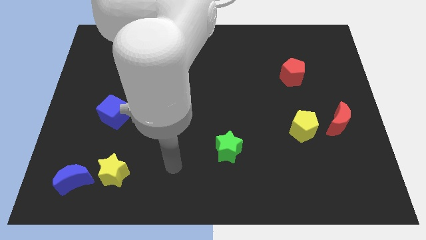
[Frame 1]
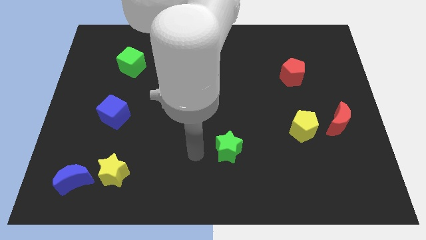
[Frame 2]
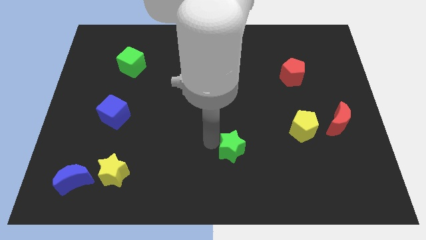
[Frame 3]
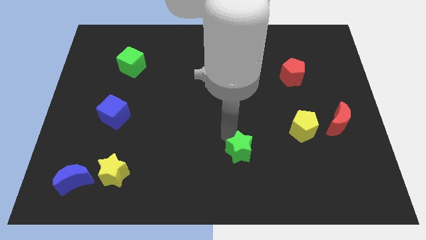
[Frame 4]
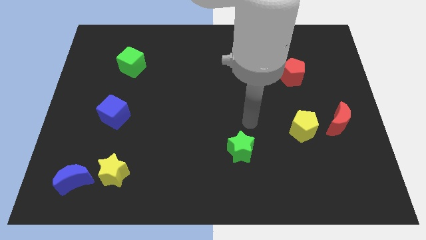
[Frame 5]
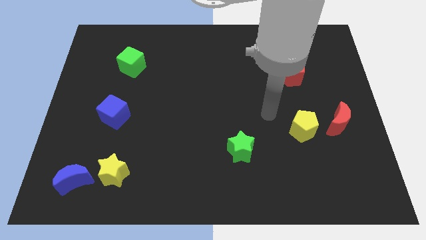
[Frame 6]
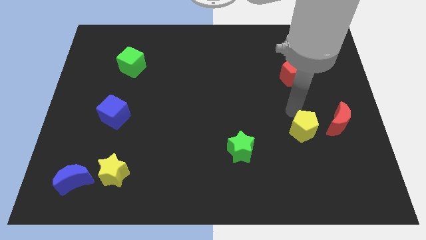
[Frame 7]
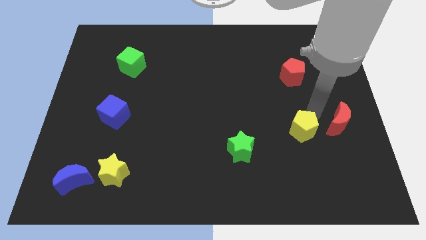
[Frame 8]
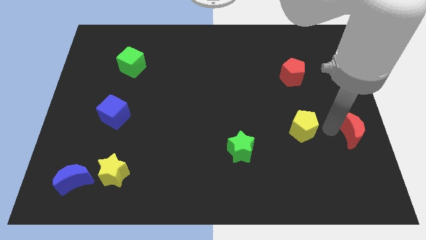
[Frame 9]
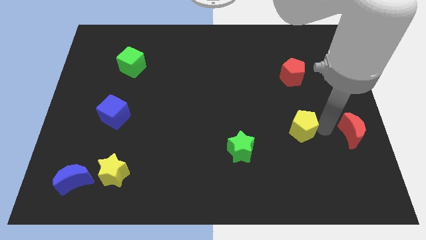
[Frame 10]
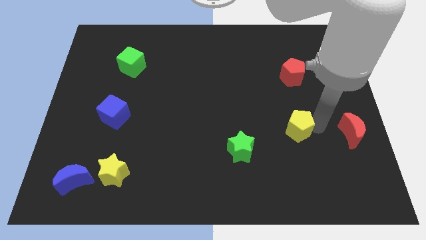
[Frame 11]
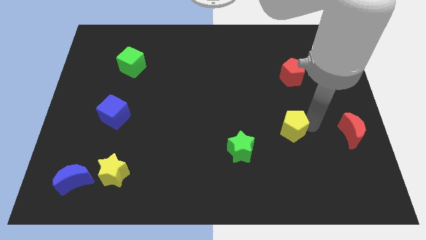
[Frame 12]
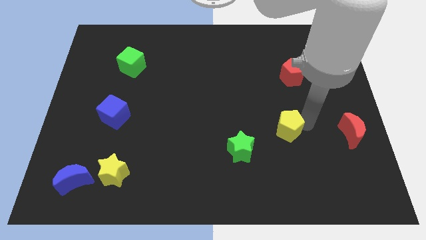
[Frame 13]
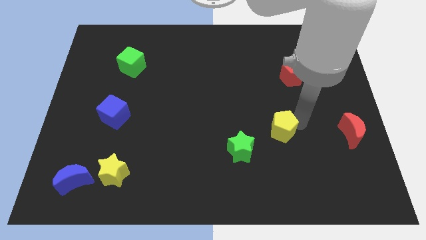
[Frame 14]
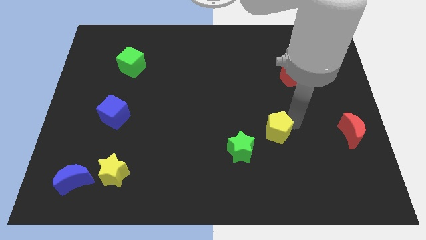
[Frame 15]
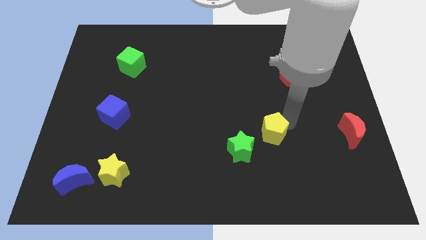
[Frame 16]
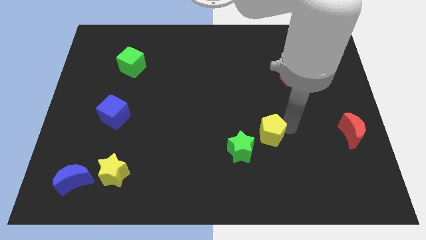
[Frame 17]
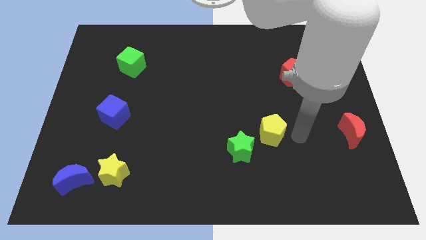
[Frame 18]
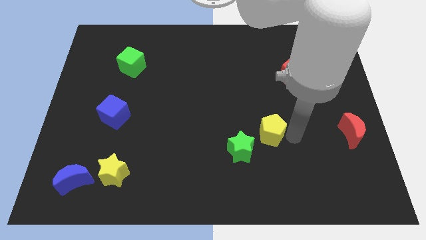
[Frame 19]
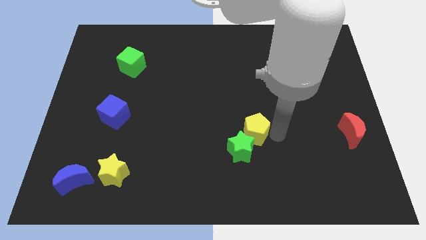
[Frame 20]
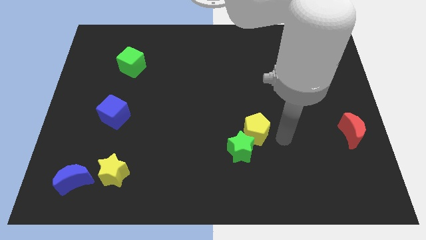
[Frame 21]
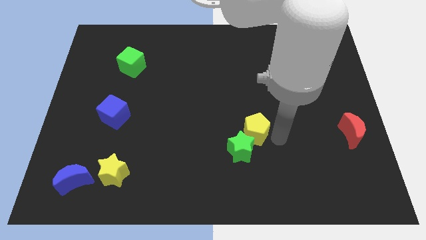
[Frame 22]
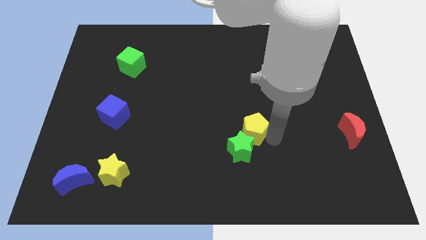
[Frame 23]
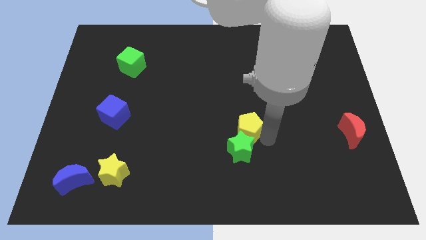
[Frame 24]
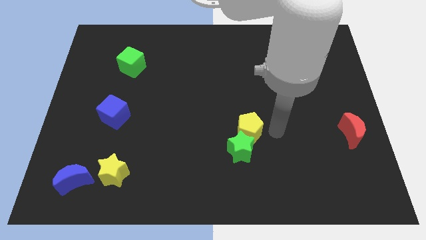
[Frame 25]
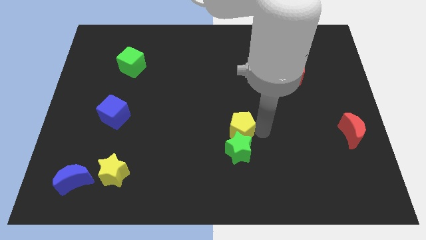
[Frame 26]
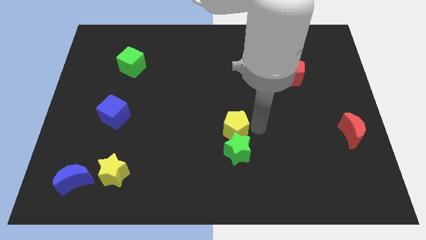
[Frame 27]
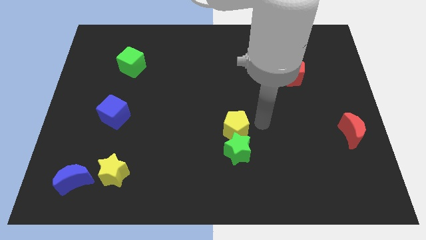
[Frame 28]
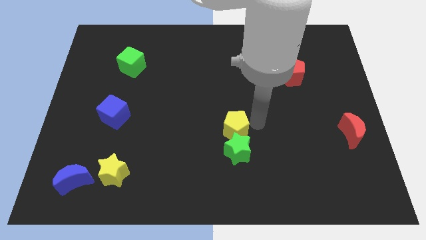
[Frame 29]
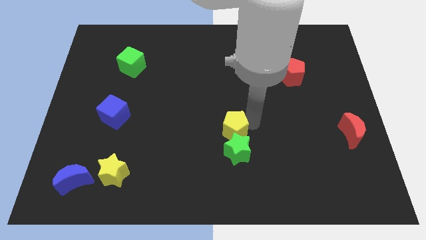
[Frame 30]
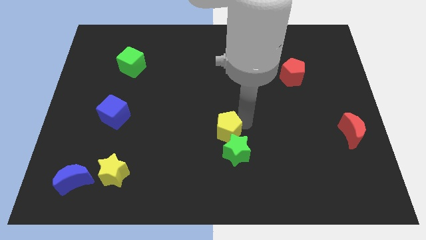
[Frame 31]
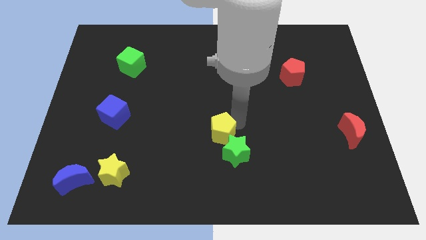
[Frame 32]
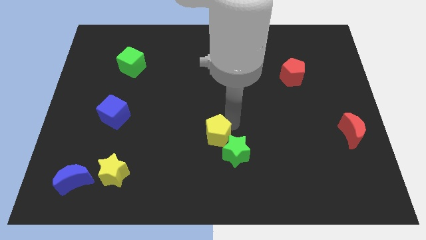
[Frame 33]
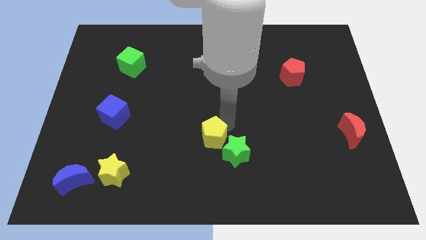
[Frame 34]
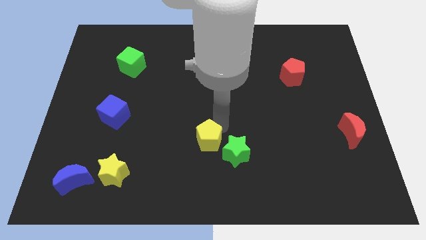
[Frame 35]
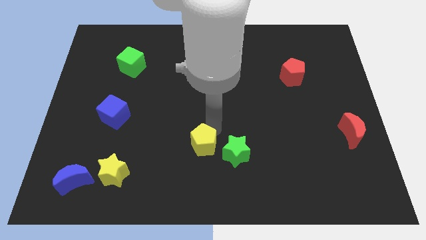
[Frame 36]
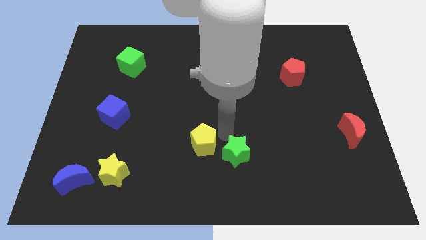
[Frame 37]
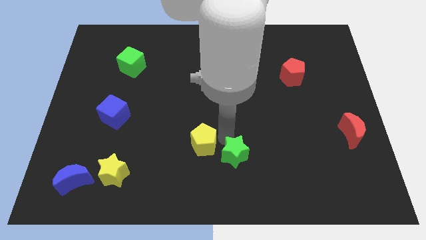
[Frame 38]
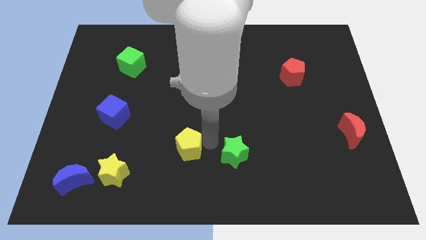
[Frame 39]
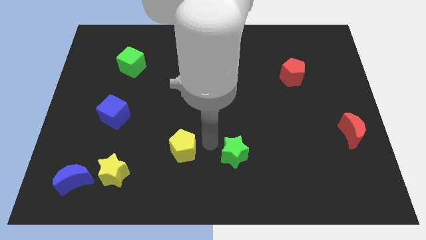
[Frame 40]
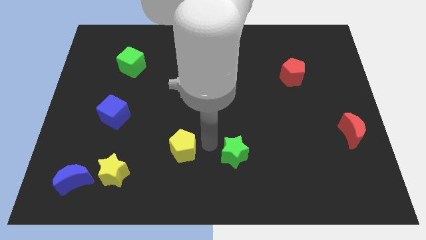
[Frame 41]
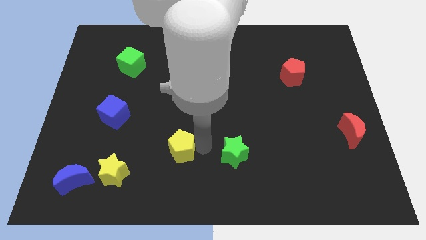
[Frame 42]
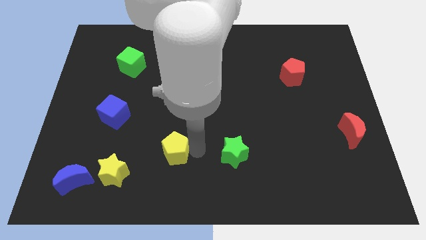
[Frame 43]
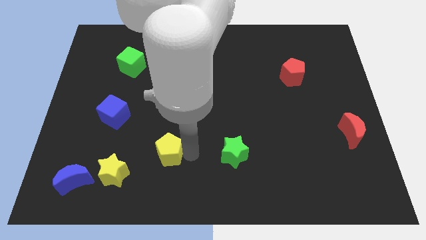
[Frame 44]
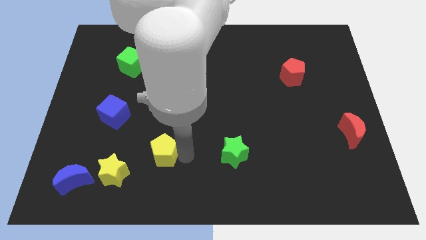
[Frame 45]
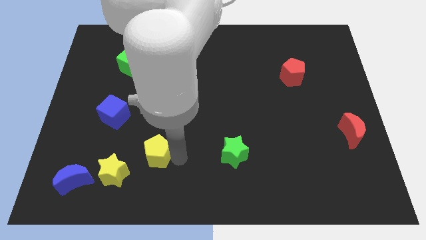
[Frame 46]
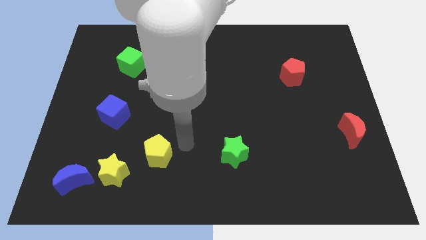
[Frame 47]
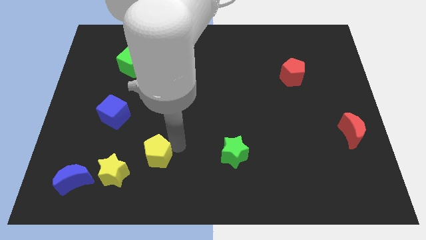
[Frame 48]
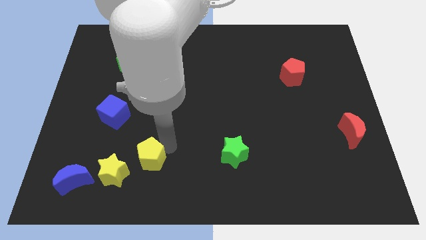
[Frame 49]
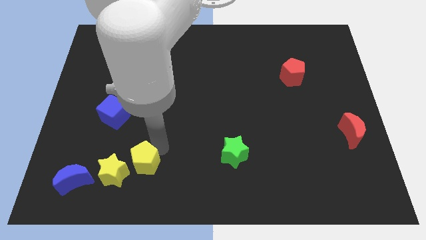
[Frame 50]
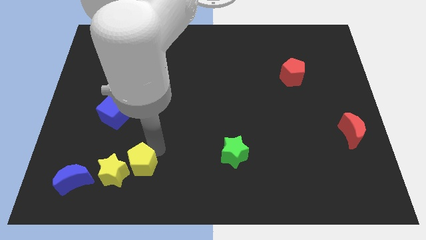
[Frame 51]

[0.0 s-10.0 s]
slide the yellow pentagon towards the yellow star

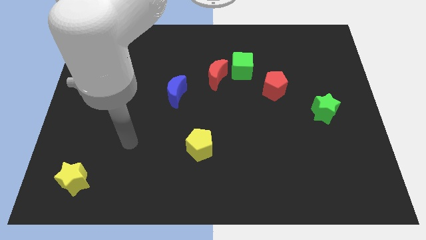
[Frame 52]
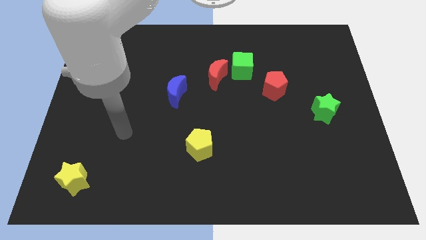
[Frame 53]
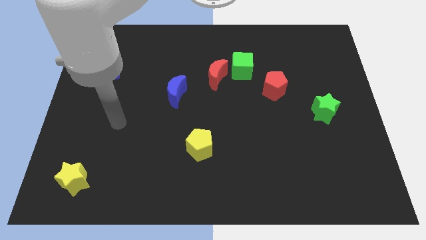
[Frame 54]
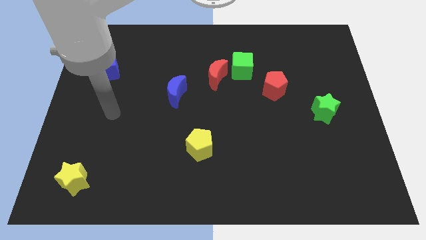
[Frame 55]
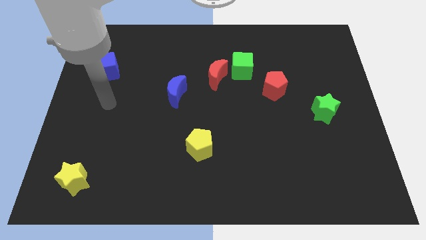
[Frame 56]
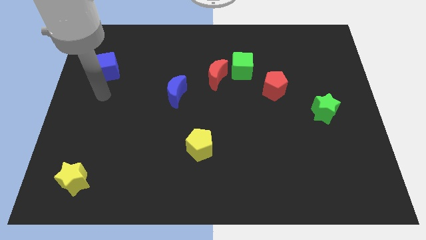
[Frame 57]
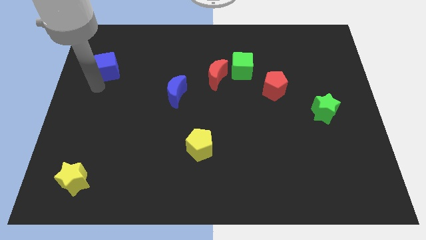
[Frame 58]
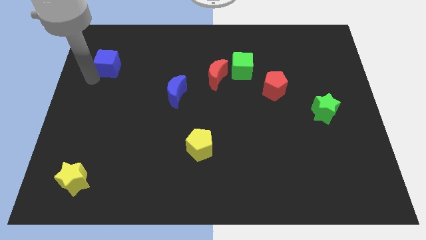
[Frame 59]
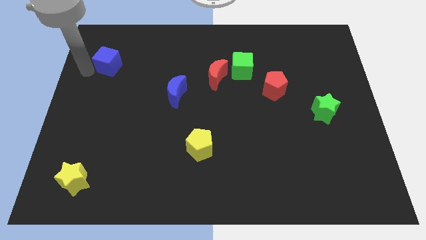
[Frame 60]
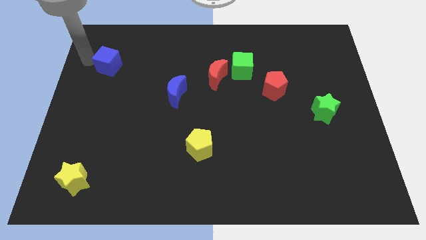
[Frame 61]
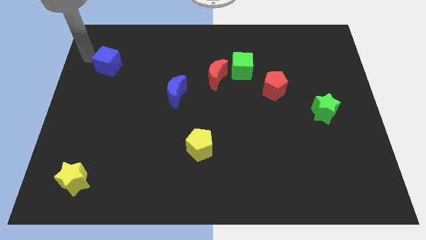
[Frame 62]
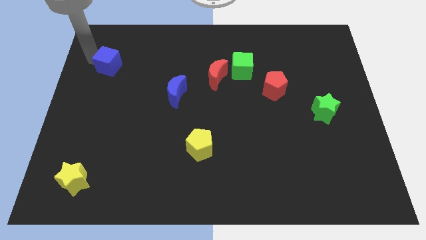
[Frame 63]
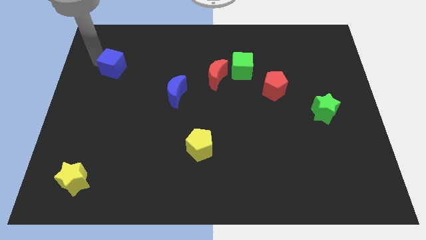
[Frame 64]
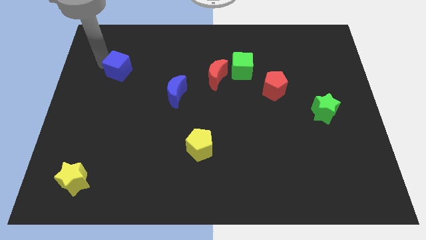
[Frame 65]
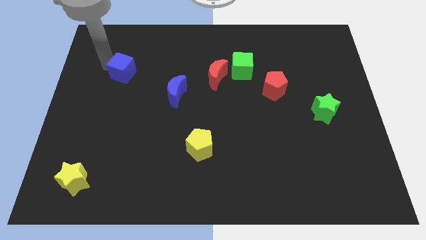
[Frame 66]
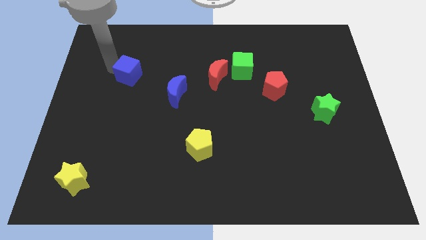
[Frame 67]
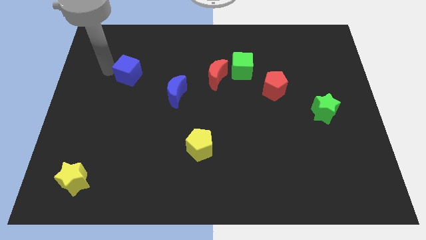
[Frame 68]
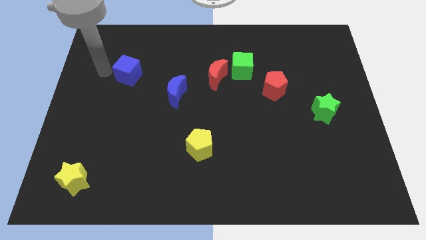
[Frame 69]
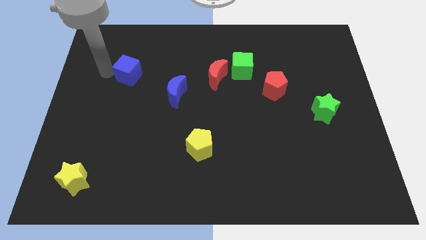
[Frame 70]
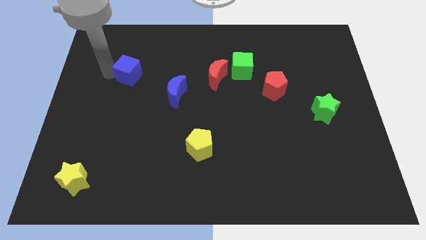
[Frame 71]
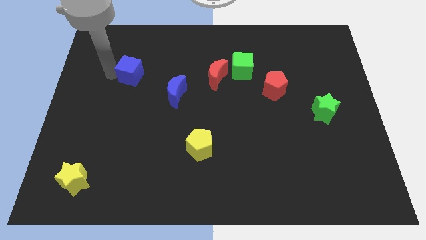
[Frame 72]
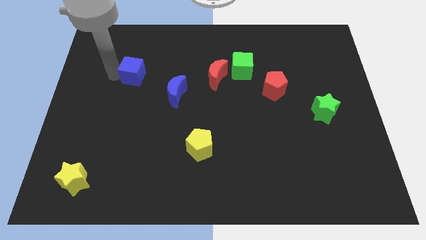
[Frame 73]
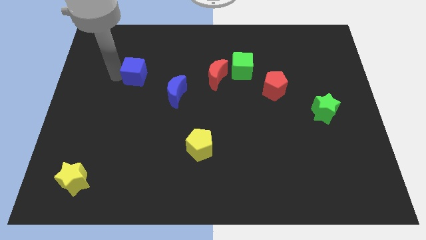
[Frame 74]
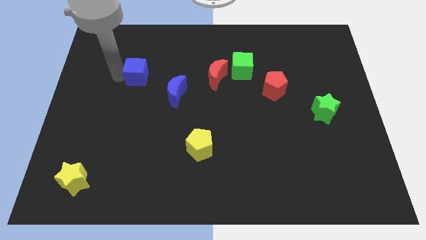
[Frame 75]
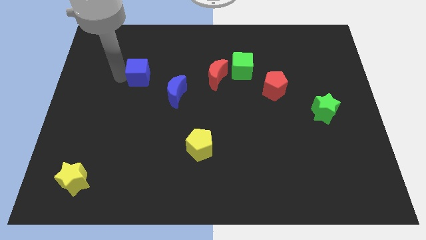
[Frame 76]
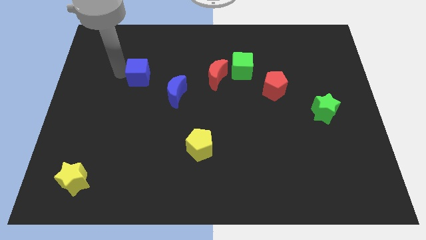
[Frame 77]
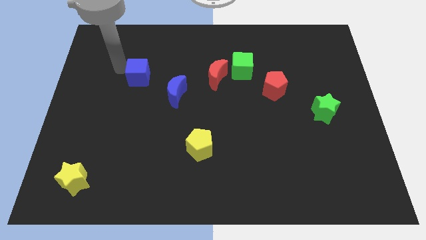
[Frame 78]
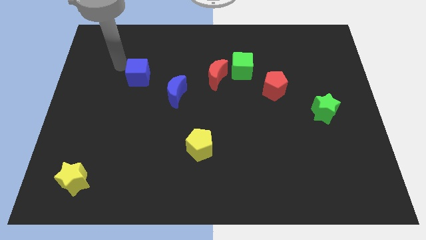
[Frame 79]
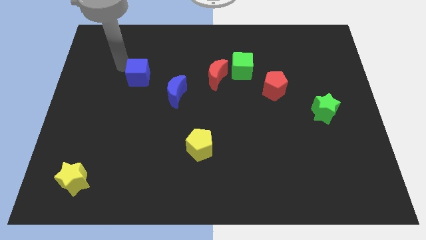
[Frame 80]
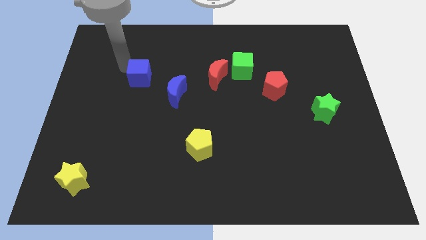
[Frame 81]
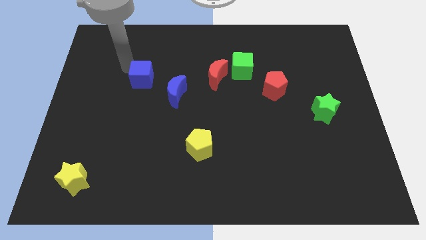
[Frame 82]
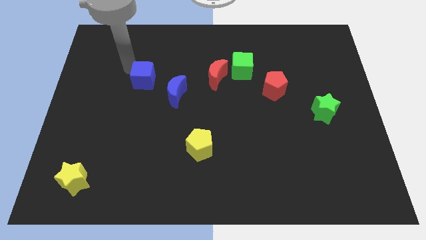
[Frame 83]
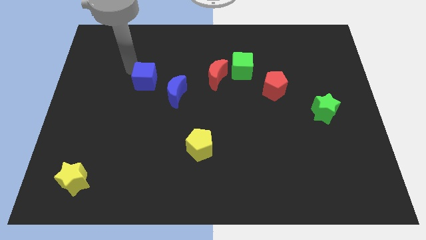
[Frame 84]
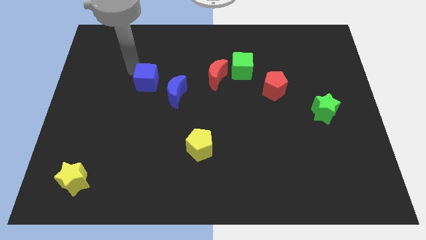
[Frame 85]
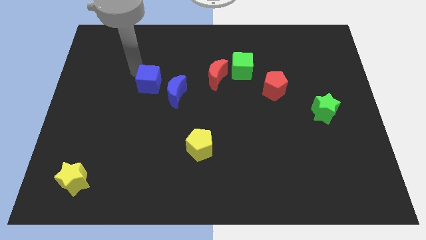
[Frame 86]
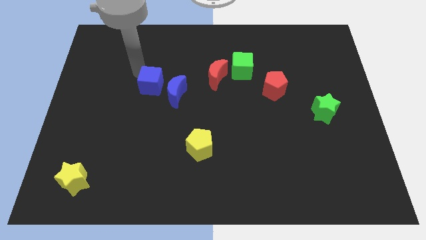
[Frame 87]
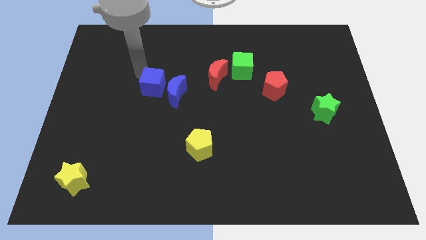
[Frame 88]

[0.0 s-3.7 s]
put the blue cube towards the blue moon
